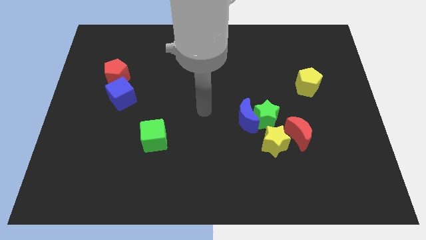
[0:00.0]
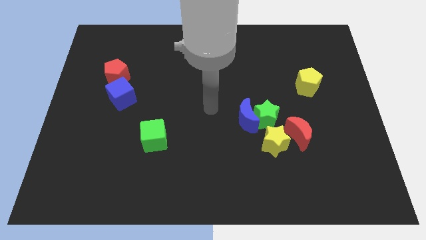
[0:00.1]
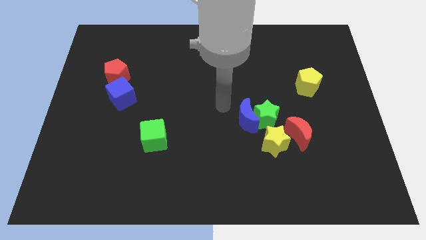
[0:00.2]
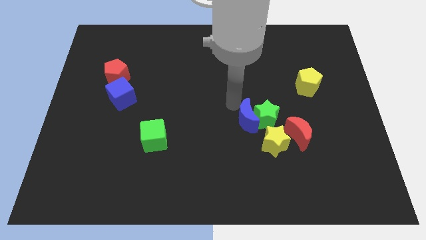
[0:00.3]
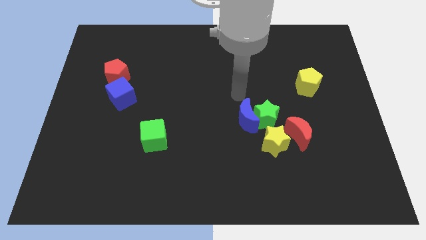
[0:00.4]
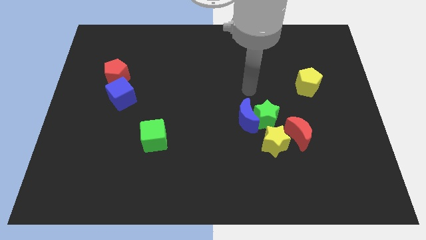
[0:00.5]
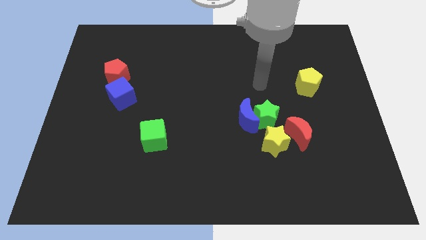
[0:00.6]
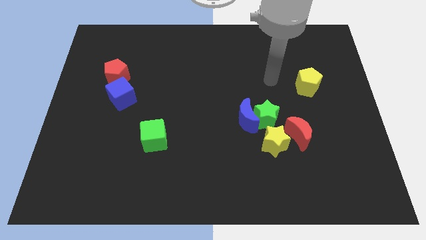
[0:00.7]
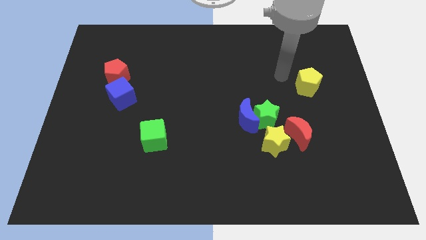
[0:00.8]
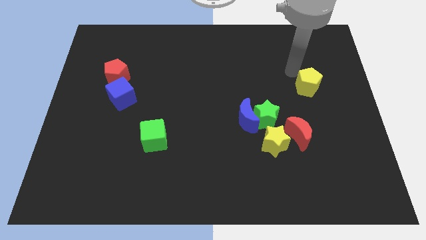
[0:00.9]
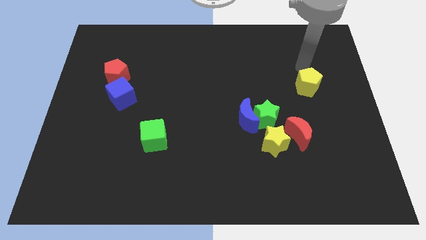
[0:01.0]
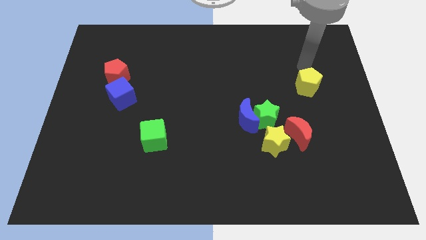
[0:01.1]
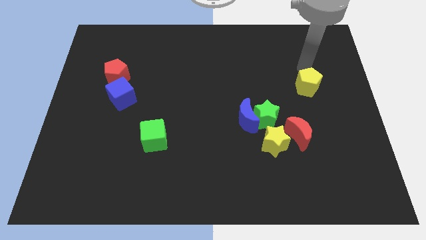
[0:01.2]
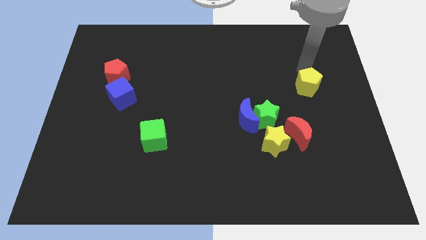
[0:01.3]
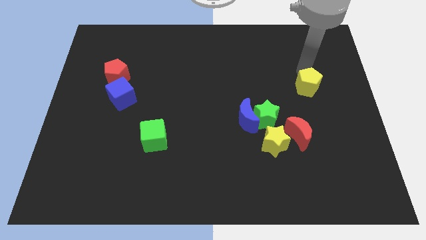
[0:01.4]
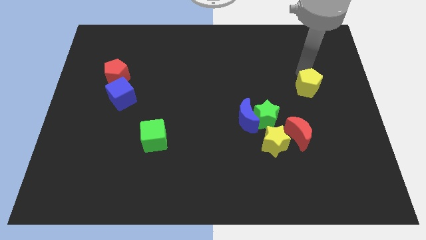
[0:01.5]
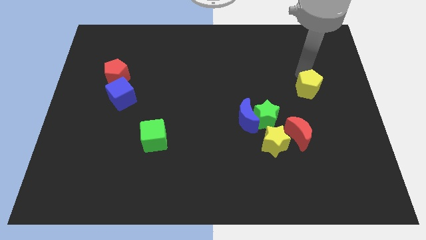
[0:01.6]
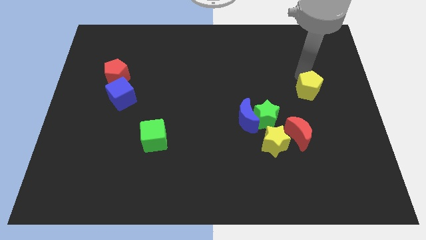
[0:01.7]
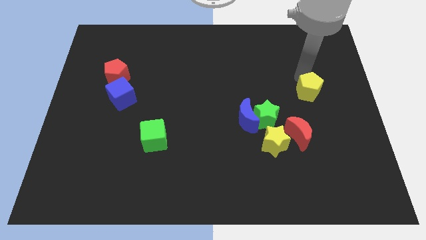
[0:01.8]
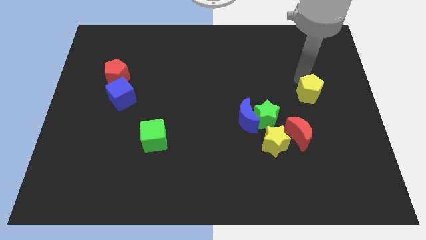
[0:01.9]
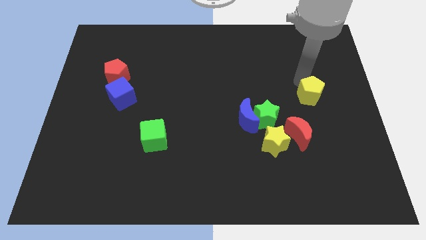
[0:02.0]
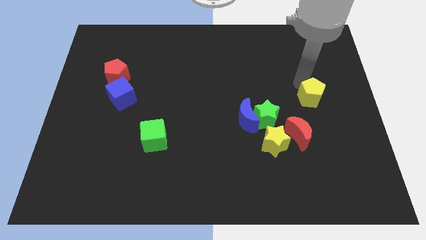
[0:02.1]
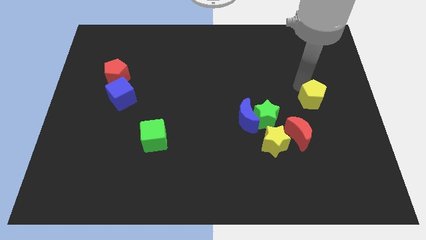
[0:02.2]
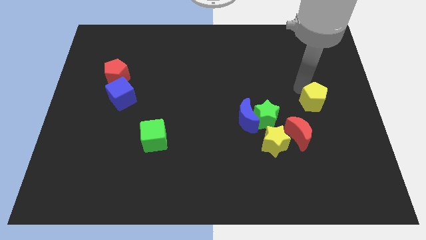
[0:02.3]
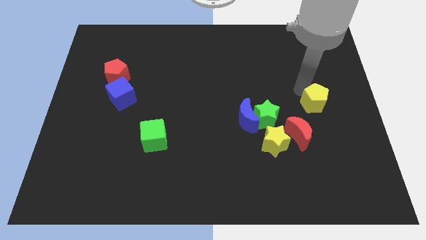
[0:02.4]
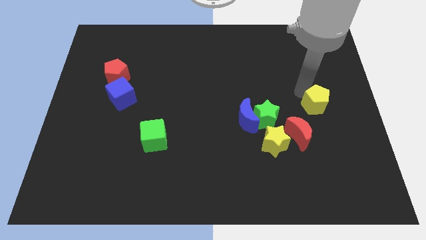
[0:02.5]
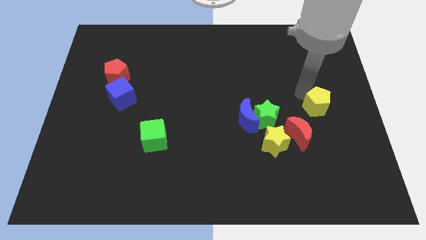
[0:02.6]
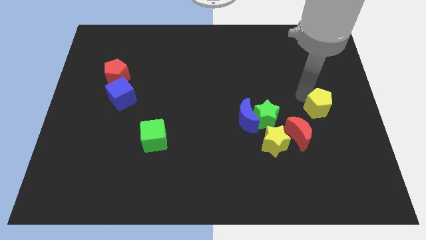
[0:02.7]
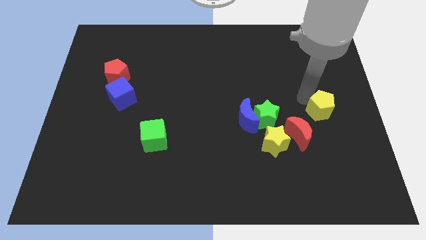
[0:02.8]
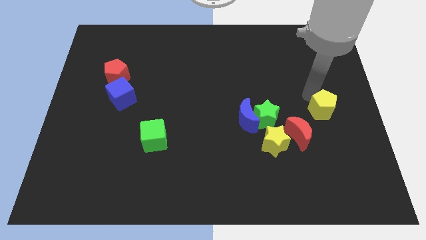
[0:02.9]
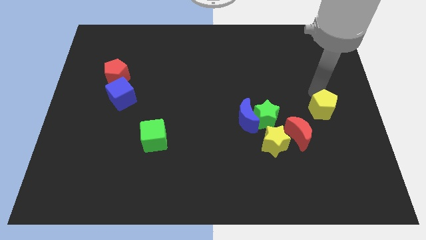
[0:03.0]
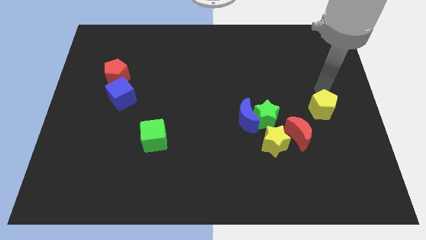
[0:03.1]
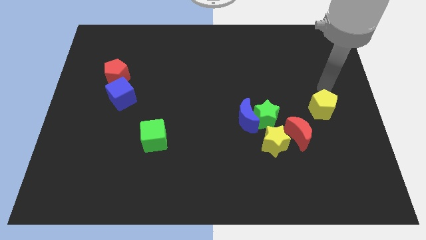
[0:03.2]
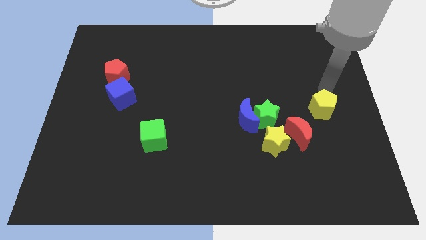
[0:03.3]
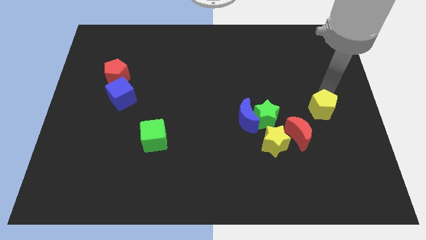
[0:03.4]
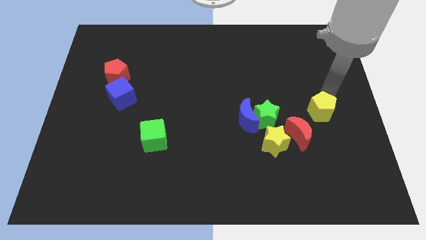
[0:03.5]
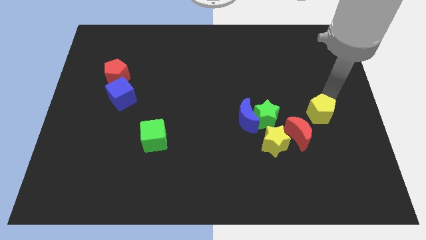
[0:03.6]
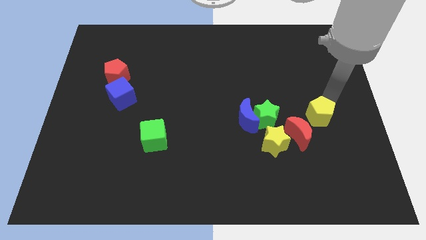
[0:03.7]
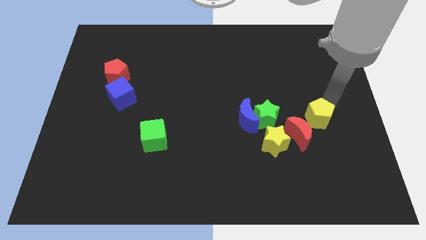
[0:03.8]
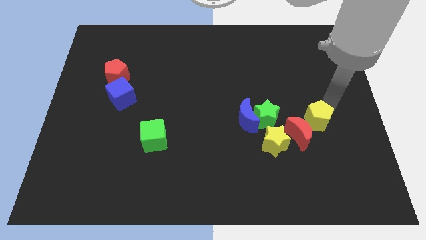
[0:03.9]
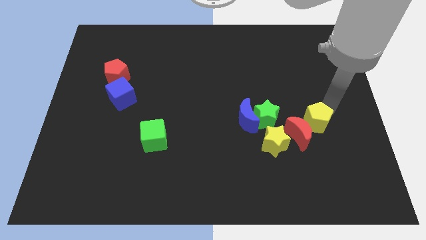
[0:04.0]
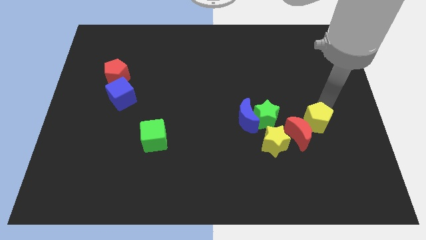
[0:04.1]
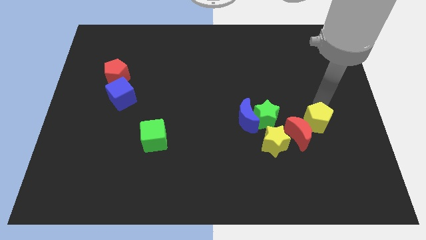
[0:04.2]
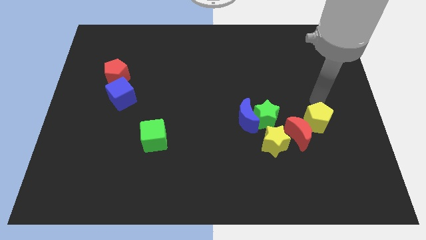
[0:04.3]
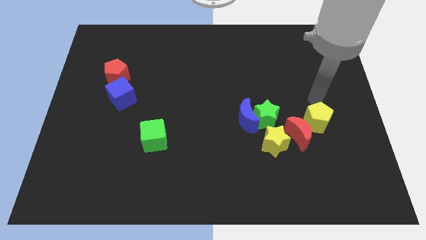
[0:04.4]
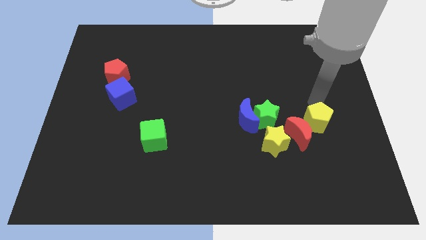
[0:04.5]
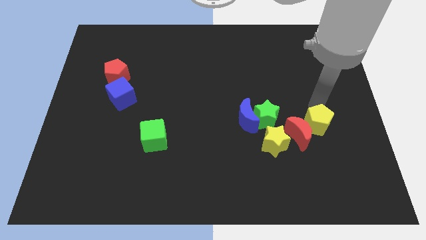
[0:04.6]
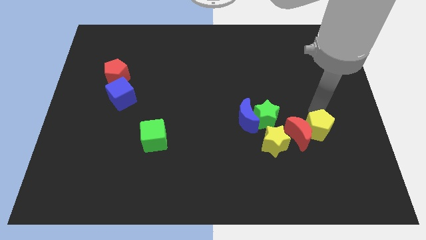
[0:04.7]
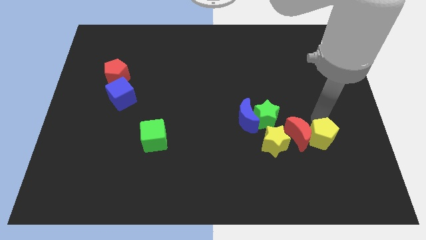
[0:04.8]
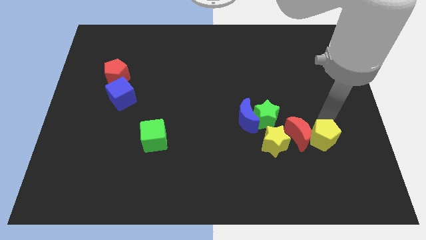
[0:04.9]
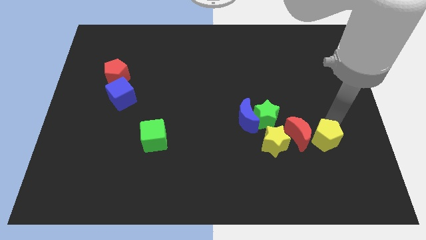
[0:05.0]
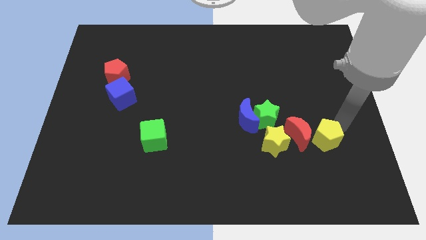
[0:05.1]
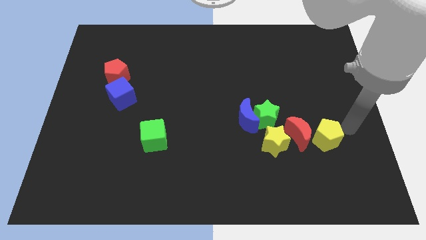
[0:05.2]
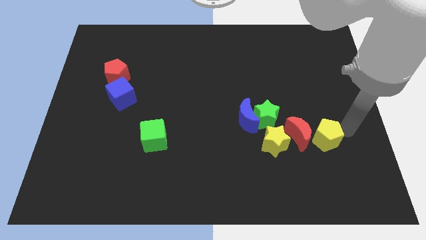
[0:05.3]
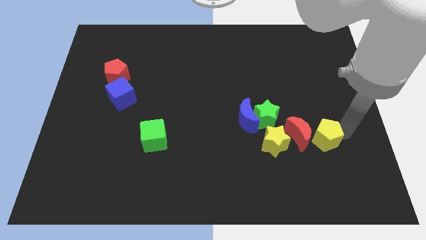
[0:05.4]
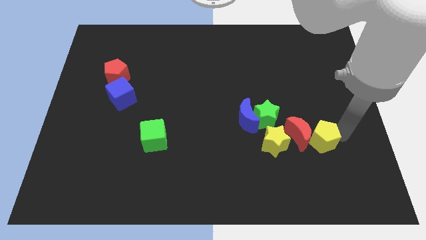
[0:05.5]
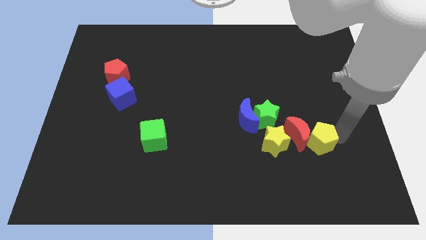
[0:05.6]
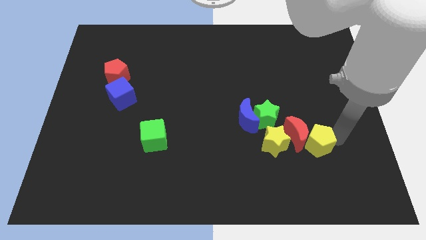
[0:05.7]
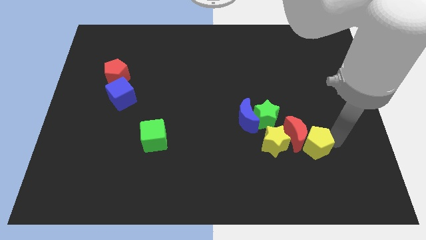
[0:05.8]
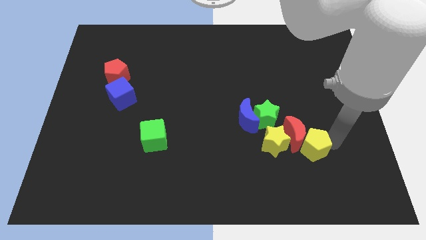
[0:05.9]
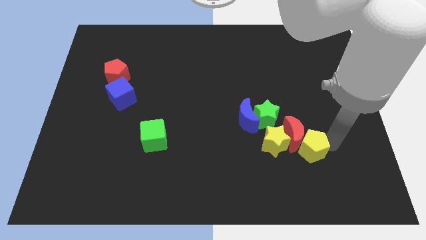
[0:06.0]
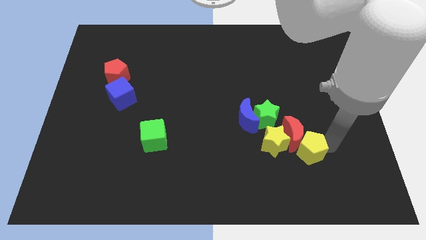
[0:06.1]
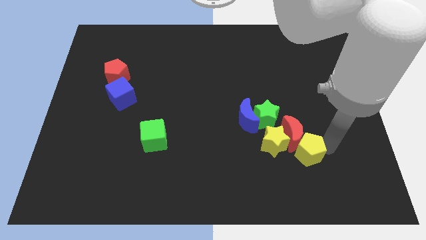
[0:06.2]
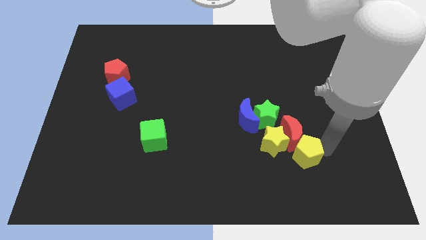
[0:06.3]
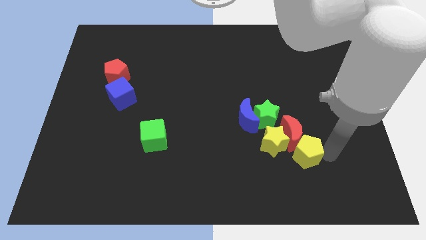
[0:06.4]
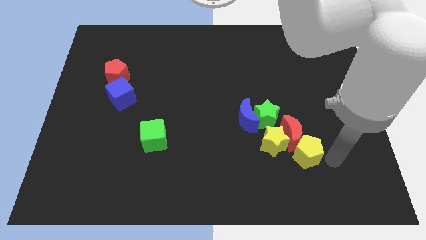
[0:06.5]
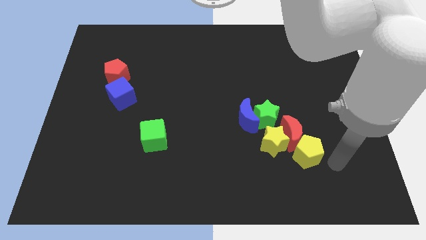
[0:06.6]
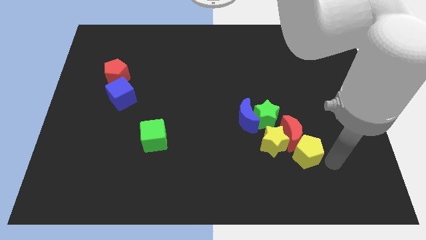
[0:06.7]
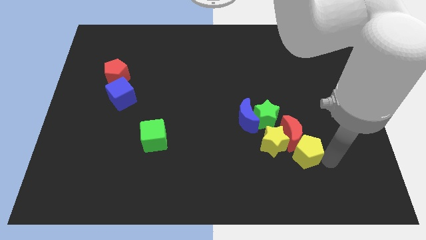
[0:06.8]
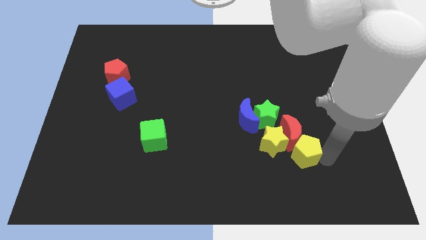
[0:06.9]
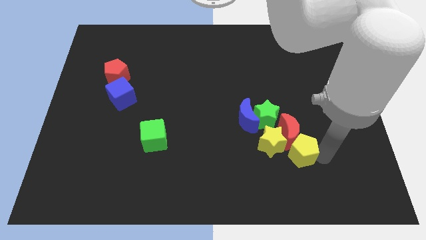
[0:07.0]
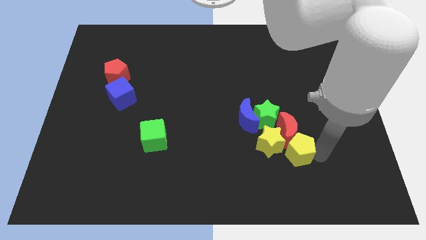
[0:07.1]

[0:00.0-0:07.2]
push the yellow pentagon close to the yellow star

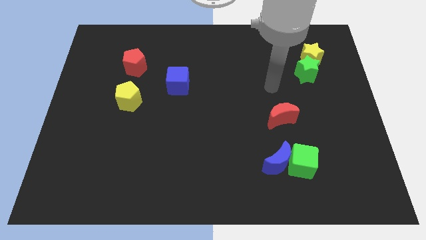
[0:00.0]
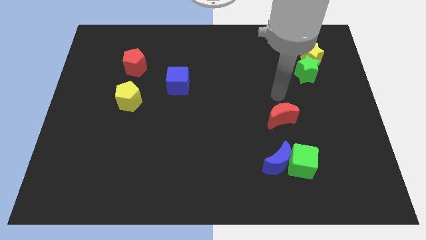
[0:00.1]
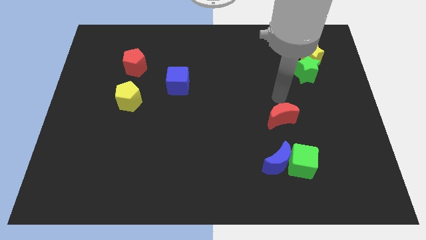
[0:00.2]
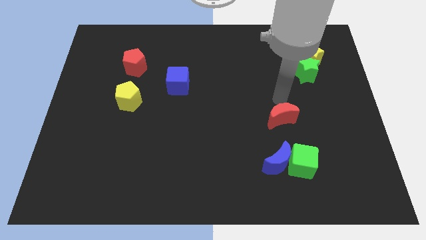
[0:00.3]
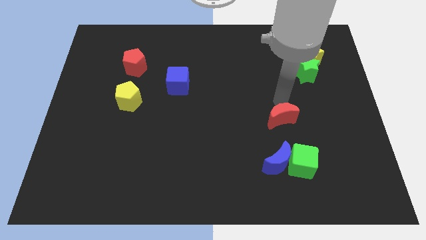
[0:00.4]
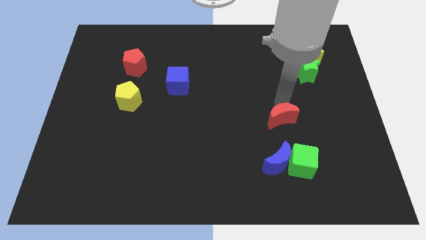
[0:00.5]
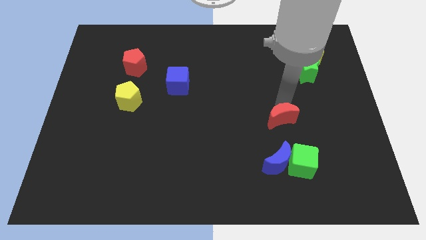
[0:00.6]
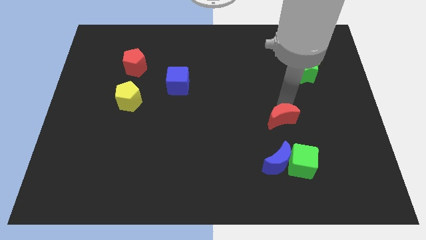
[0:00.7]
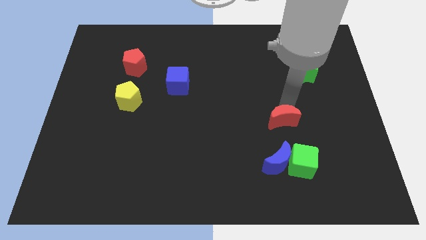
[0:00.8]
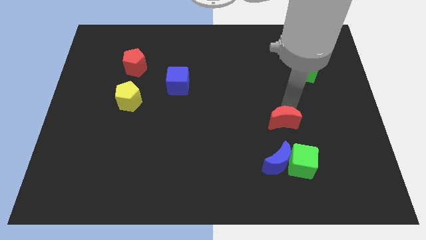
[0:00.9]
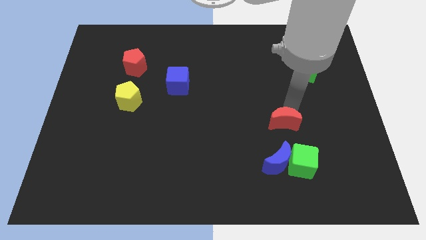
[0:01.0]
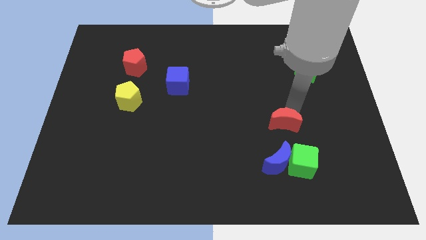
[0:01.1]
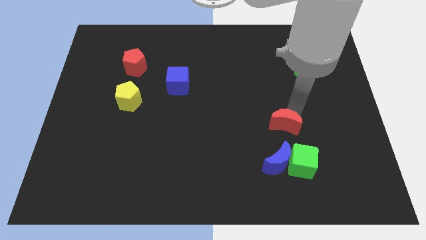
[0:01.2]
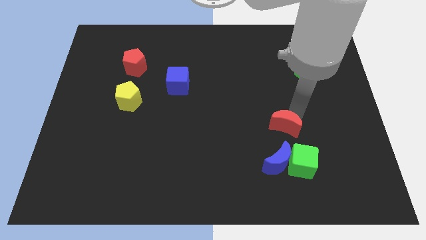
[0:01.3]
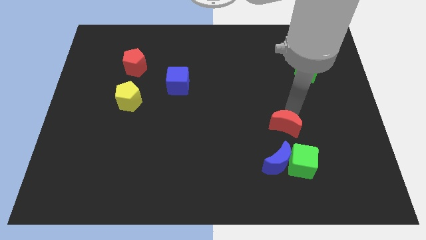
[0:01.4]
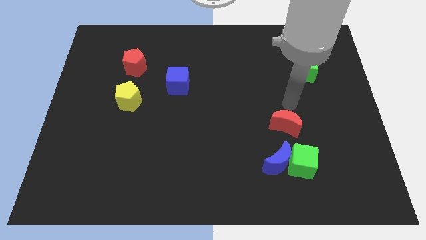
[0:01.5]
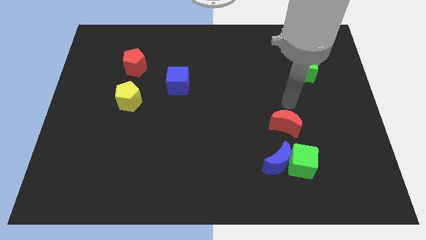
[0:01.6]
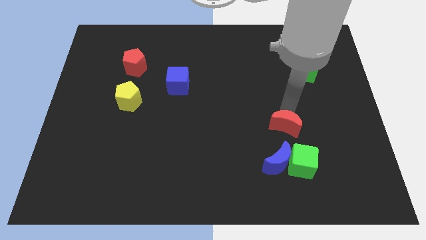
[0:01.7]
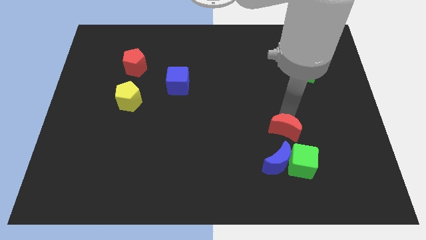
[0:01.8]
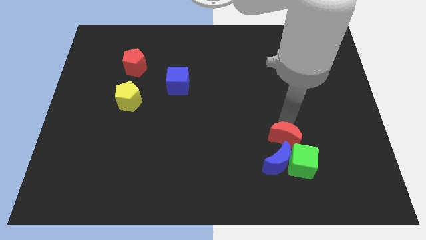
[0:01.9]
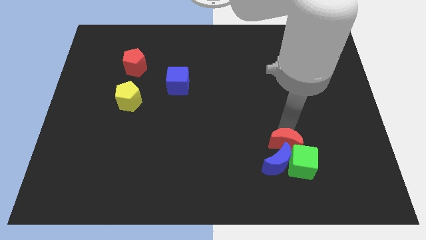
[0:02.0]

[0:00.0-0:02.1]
push the red moon to the blue moon
